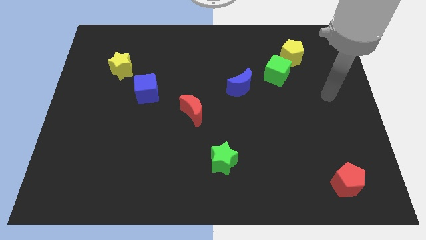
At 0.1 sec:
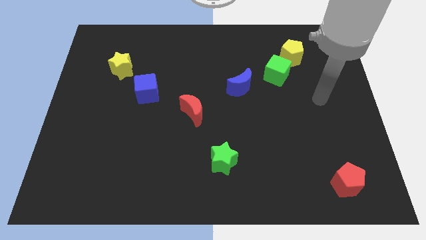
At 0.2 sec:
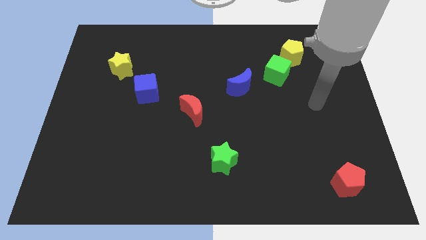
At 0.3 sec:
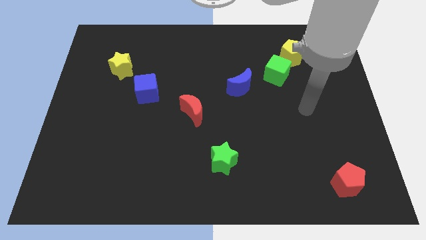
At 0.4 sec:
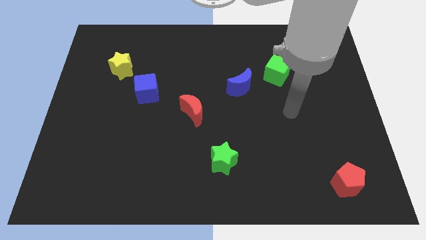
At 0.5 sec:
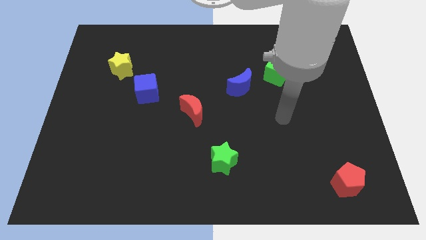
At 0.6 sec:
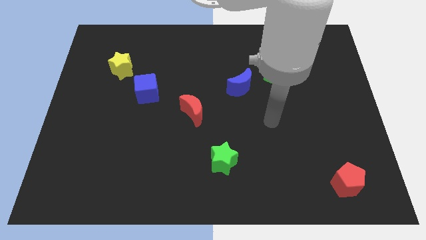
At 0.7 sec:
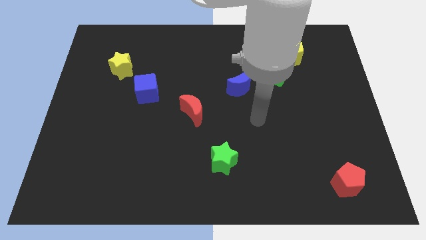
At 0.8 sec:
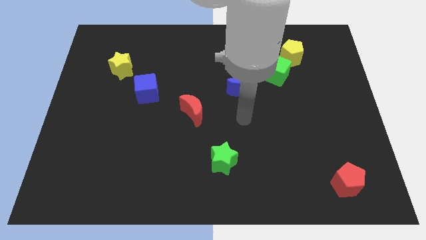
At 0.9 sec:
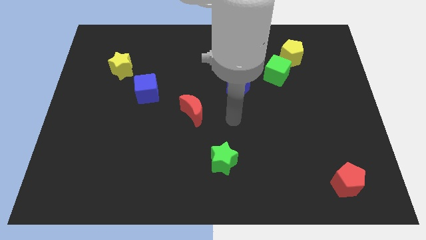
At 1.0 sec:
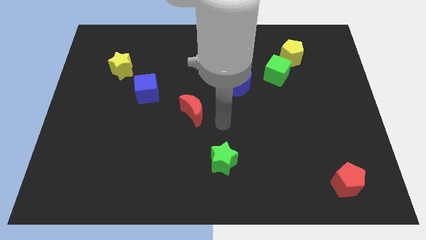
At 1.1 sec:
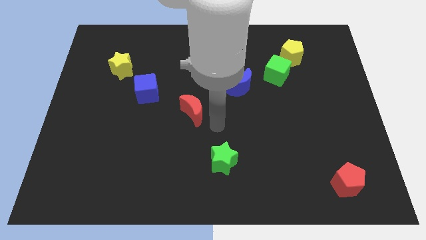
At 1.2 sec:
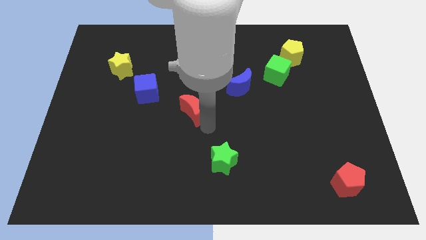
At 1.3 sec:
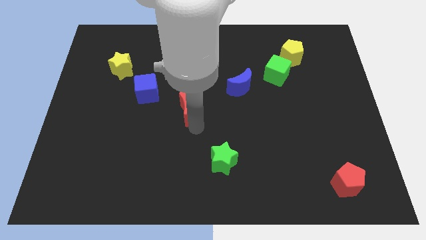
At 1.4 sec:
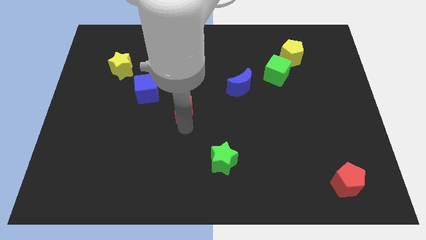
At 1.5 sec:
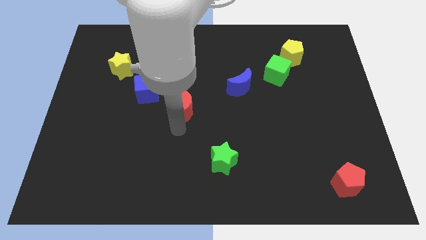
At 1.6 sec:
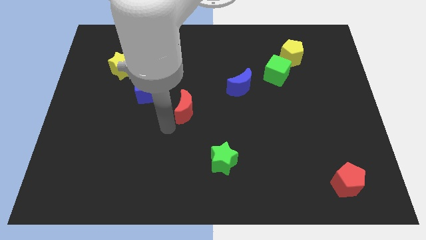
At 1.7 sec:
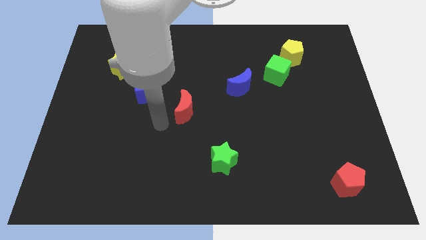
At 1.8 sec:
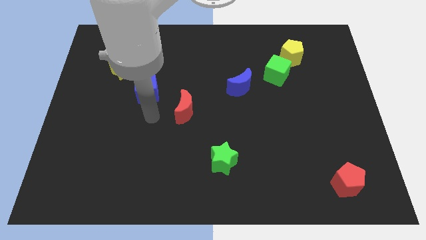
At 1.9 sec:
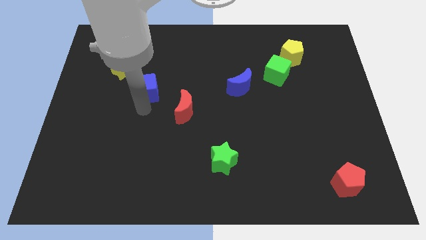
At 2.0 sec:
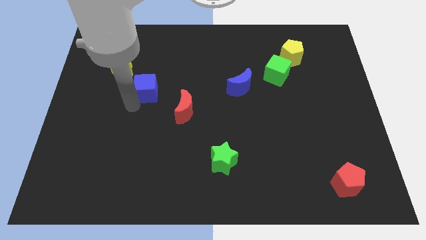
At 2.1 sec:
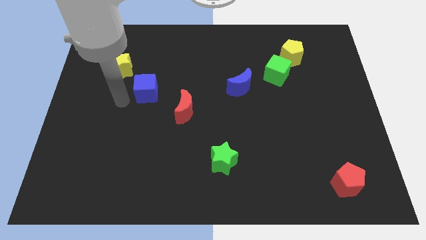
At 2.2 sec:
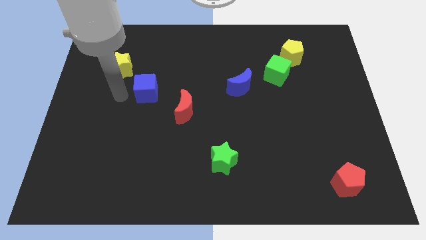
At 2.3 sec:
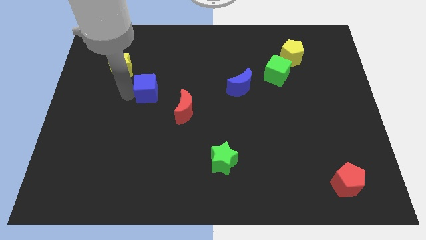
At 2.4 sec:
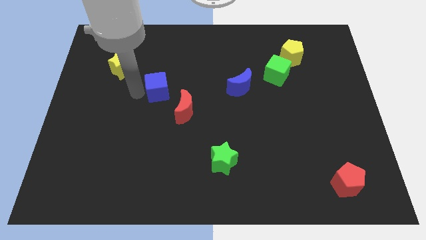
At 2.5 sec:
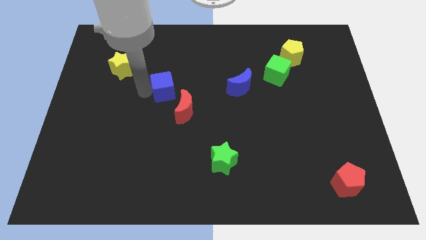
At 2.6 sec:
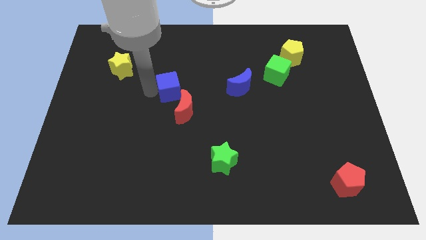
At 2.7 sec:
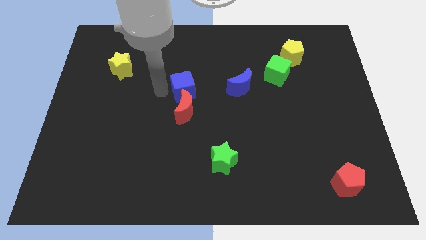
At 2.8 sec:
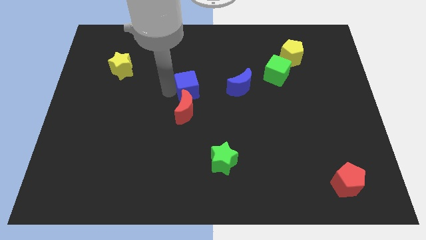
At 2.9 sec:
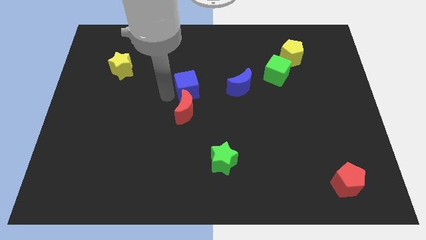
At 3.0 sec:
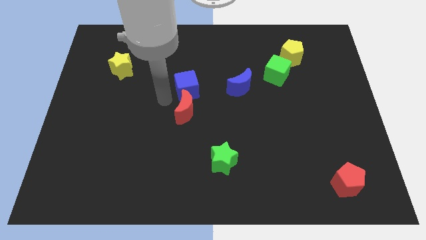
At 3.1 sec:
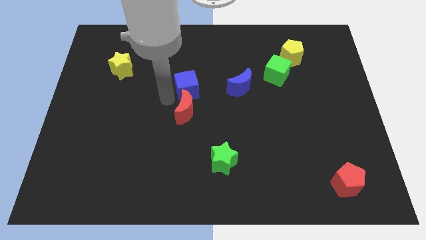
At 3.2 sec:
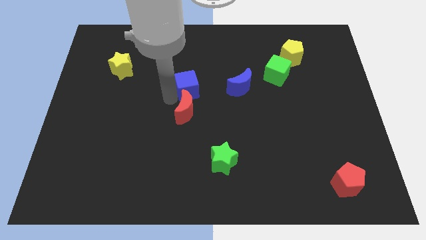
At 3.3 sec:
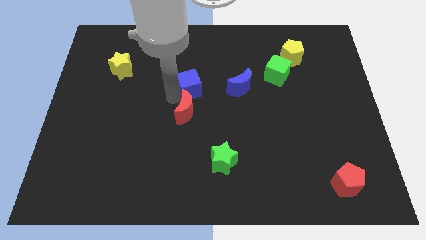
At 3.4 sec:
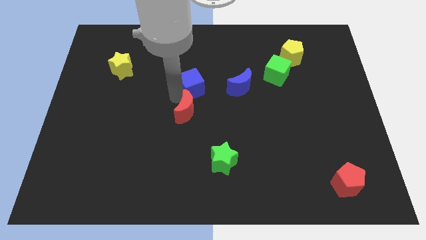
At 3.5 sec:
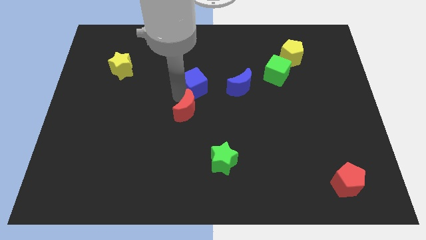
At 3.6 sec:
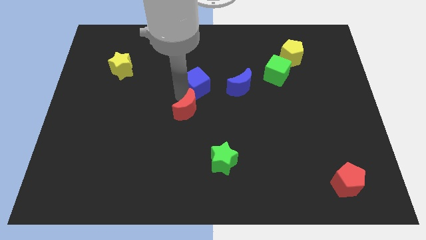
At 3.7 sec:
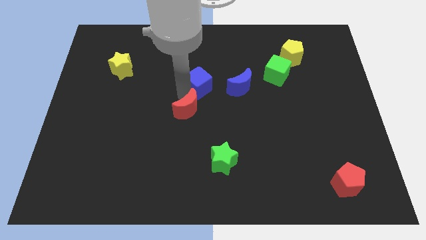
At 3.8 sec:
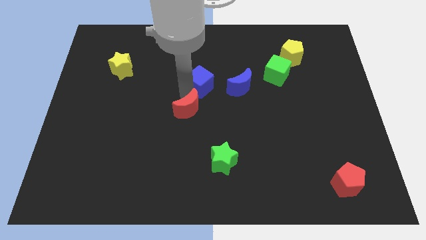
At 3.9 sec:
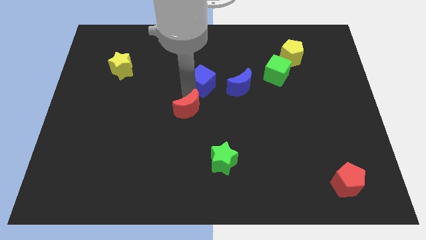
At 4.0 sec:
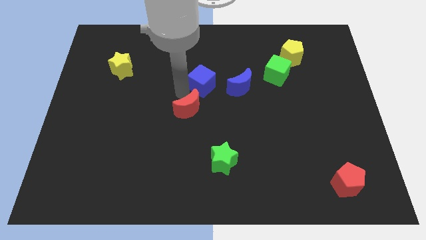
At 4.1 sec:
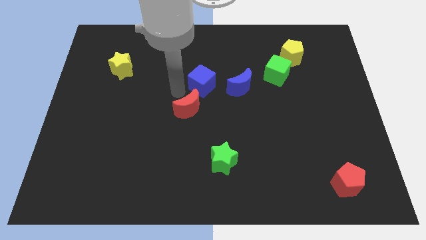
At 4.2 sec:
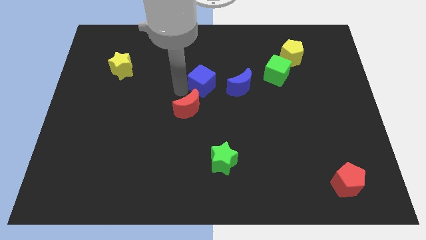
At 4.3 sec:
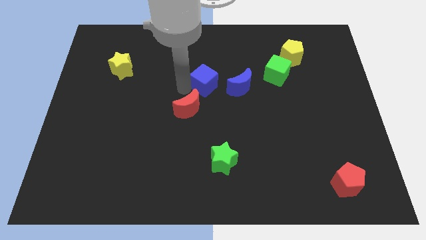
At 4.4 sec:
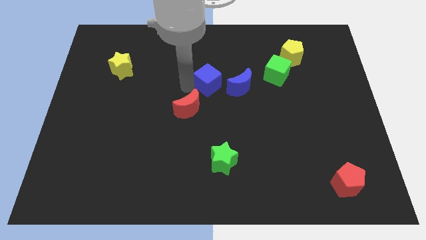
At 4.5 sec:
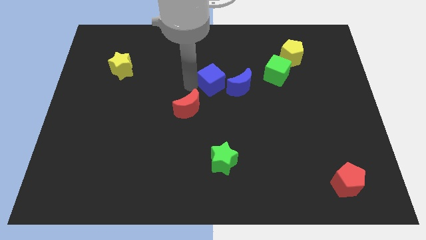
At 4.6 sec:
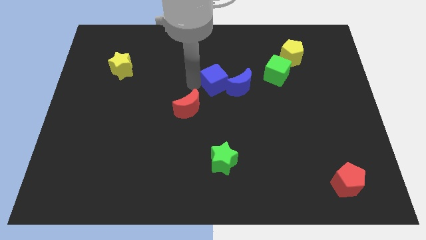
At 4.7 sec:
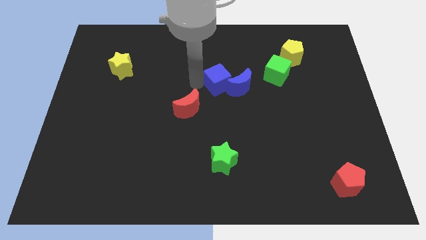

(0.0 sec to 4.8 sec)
push the blue cube just left of the green cube

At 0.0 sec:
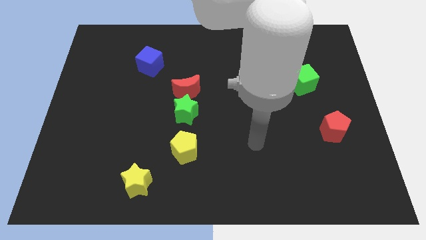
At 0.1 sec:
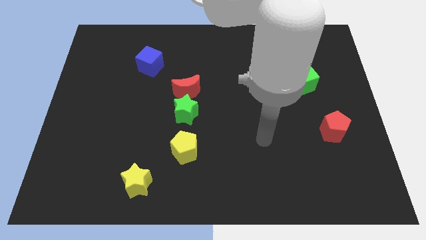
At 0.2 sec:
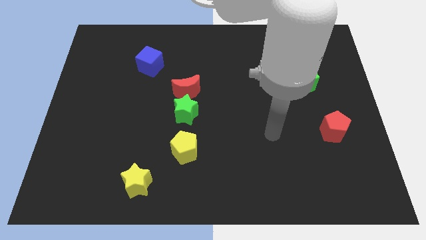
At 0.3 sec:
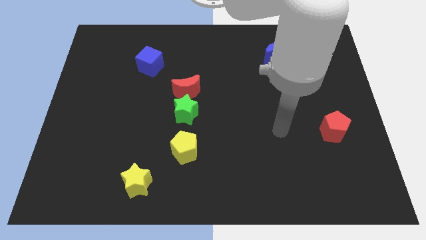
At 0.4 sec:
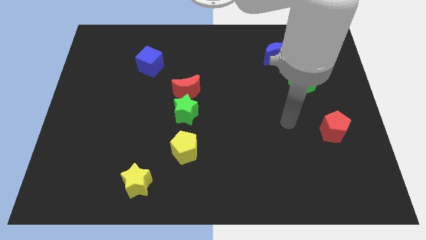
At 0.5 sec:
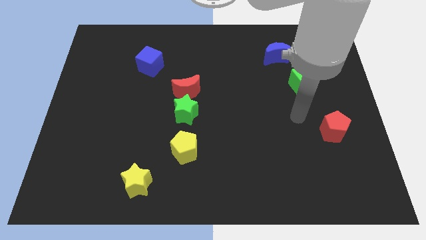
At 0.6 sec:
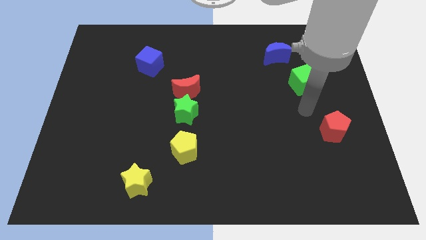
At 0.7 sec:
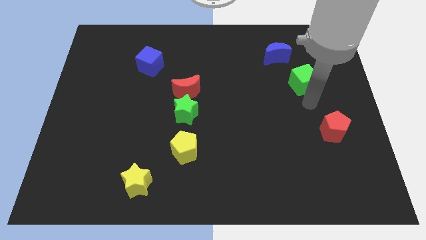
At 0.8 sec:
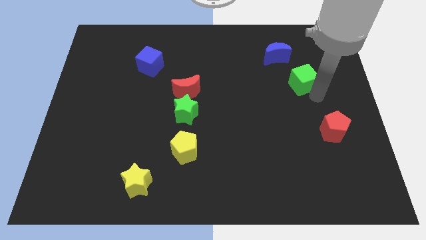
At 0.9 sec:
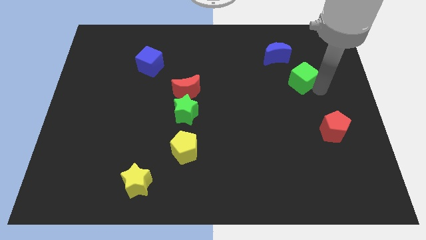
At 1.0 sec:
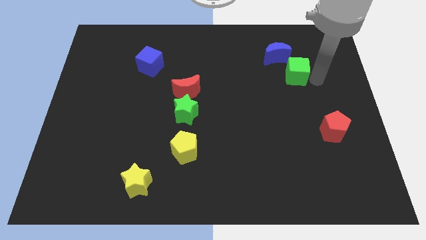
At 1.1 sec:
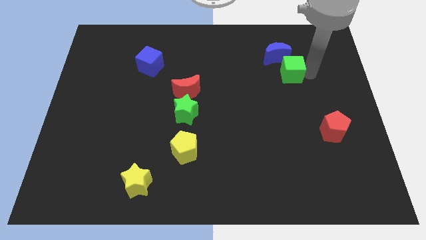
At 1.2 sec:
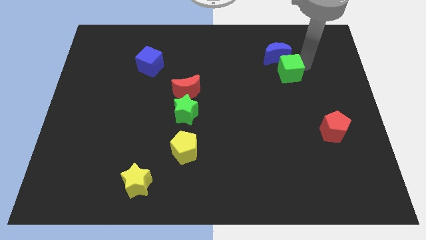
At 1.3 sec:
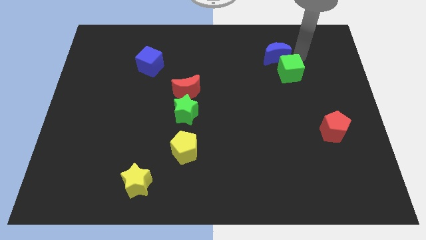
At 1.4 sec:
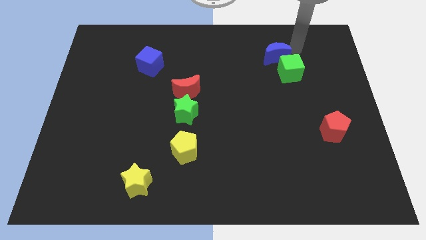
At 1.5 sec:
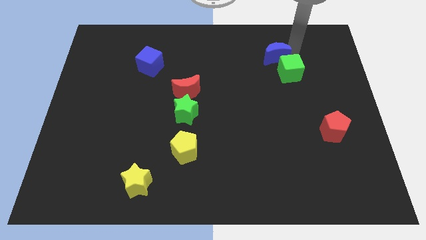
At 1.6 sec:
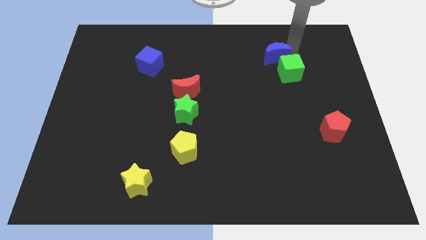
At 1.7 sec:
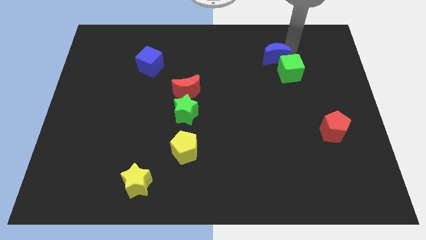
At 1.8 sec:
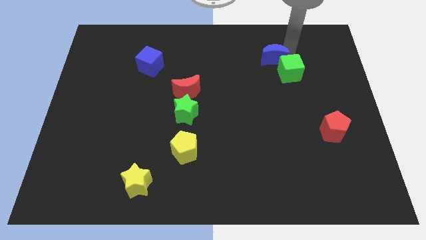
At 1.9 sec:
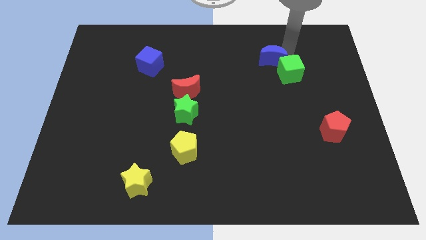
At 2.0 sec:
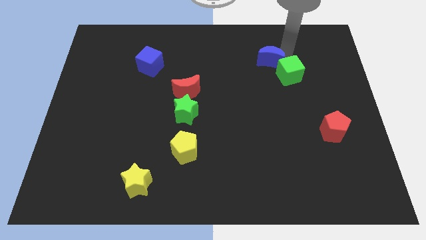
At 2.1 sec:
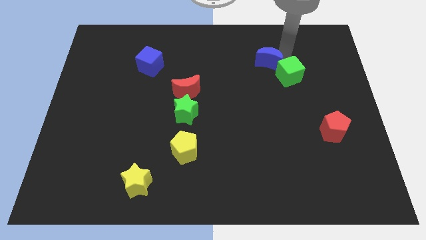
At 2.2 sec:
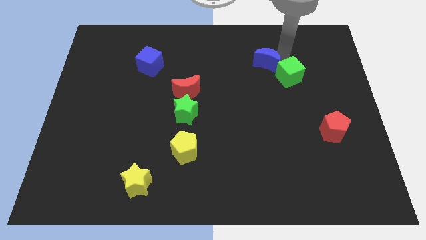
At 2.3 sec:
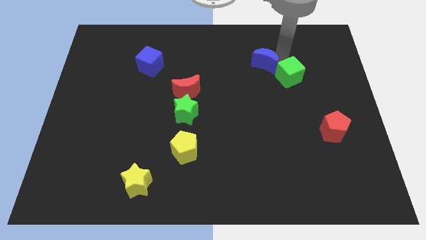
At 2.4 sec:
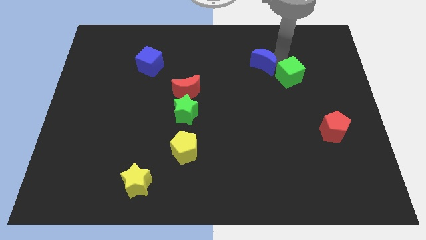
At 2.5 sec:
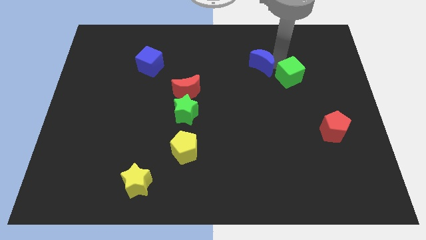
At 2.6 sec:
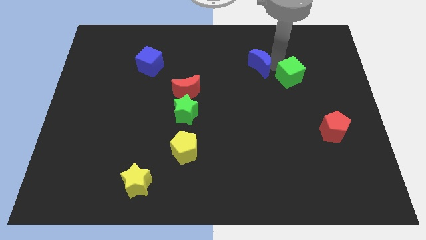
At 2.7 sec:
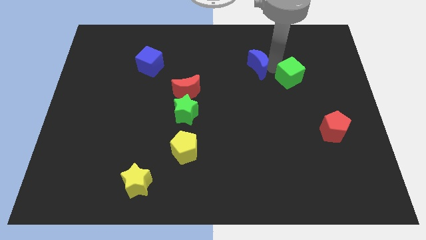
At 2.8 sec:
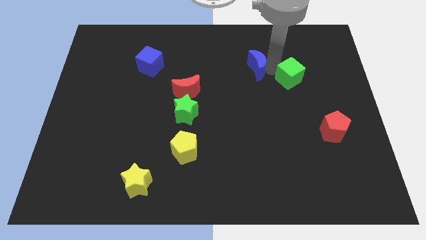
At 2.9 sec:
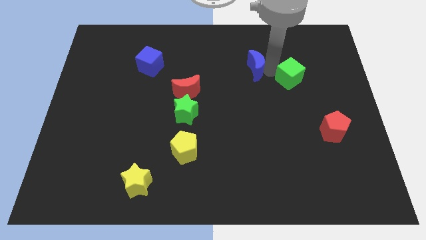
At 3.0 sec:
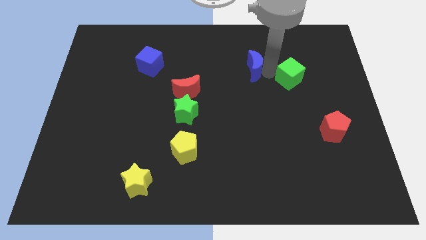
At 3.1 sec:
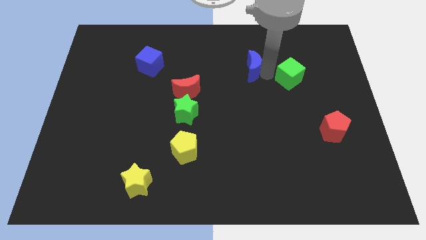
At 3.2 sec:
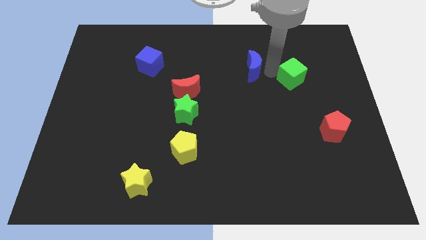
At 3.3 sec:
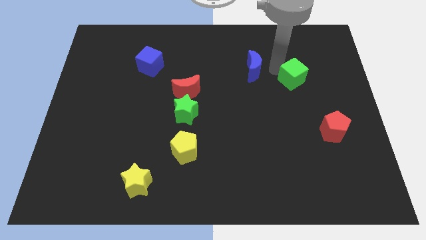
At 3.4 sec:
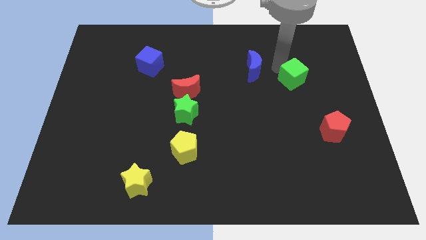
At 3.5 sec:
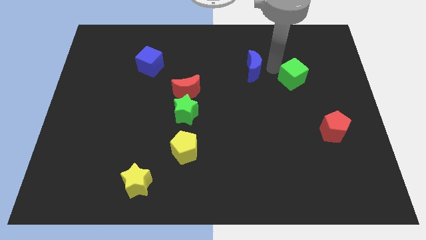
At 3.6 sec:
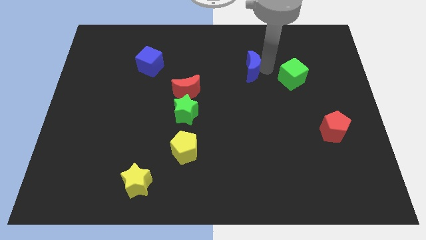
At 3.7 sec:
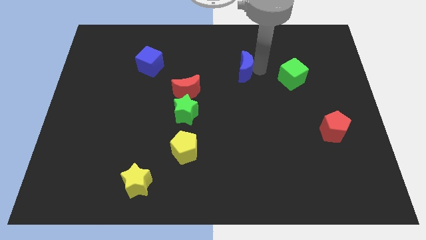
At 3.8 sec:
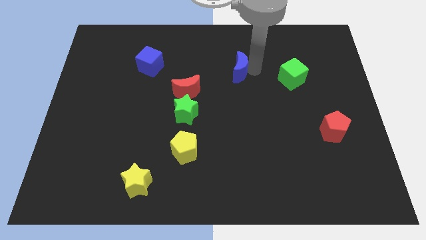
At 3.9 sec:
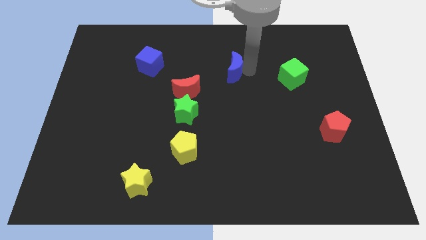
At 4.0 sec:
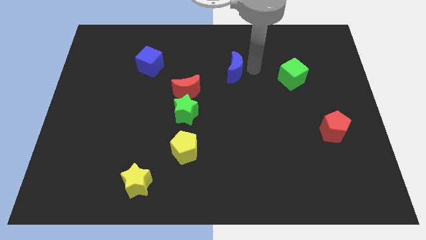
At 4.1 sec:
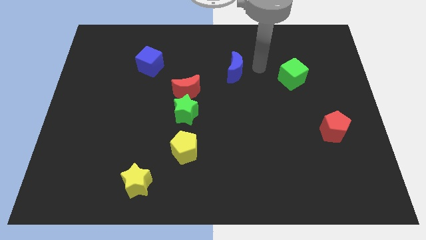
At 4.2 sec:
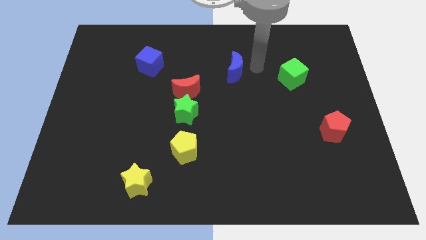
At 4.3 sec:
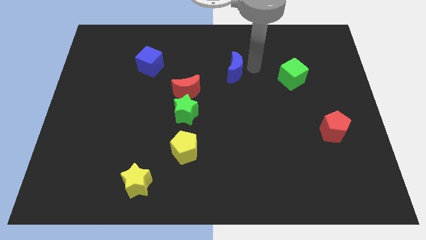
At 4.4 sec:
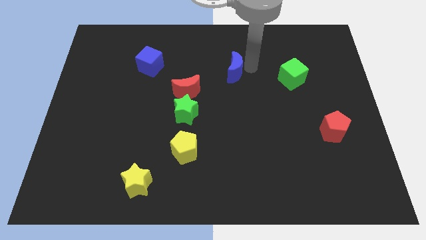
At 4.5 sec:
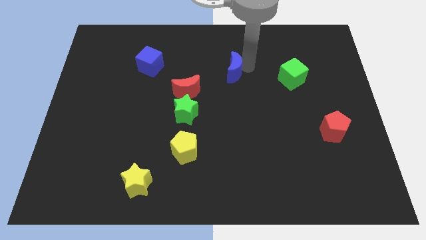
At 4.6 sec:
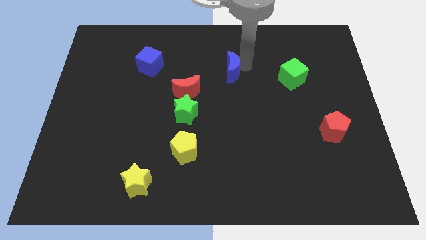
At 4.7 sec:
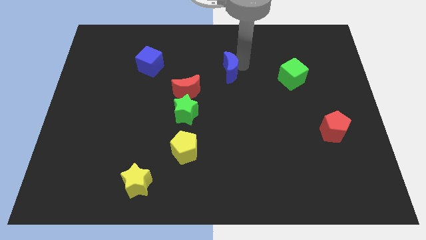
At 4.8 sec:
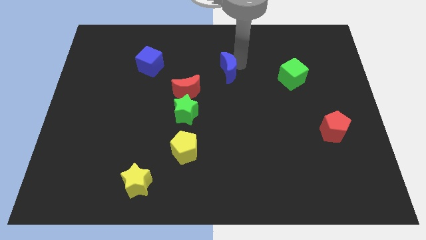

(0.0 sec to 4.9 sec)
push the blue moon diagonally up and to the right of the red moon
